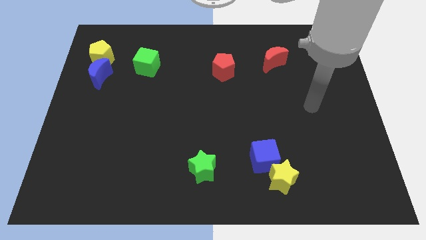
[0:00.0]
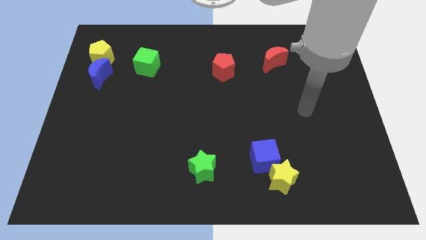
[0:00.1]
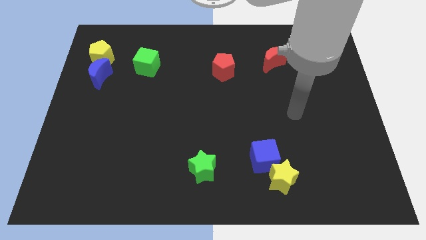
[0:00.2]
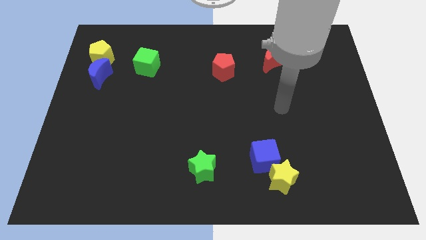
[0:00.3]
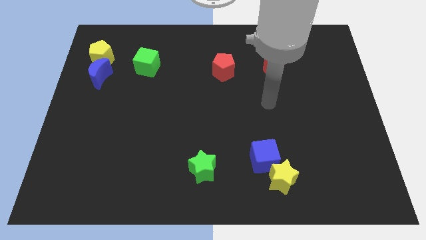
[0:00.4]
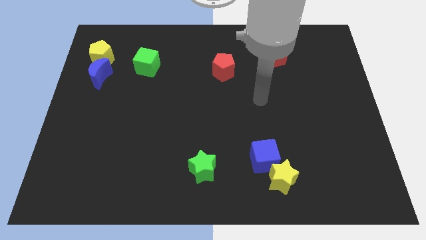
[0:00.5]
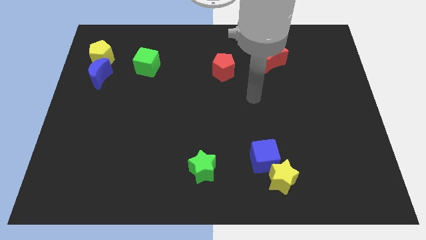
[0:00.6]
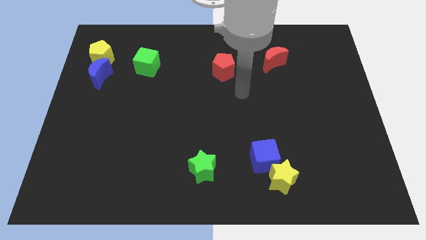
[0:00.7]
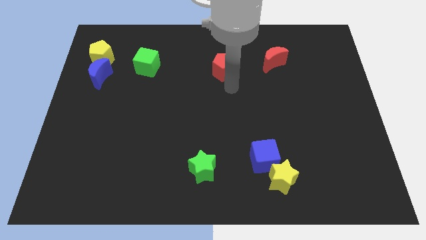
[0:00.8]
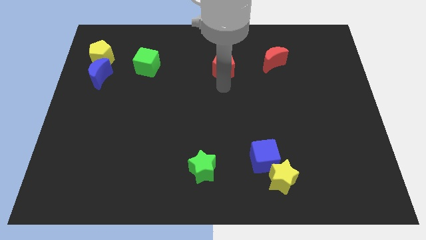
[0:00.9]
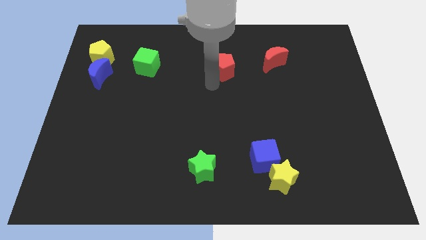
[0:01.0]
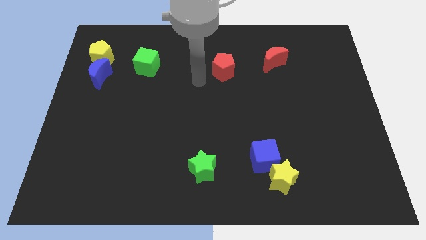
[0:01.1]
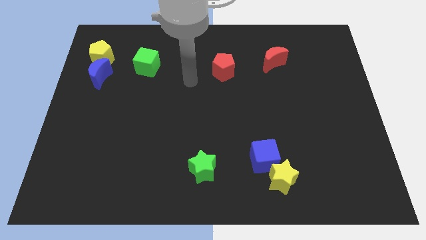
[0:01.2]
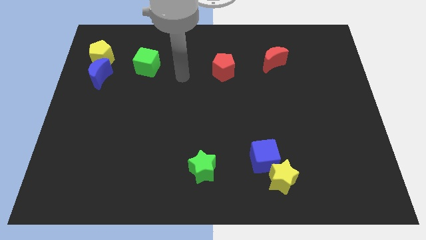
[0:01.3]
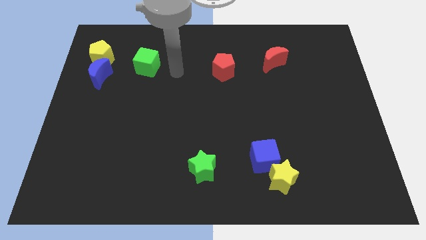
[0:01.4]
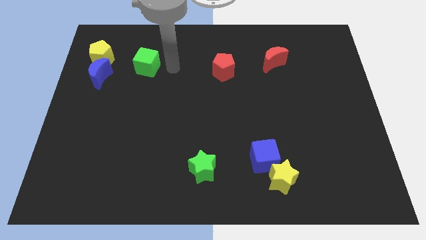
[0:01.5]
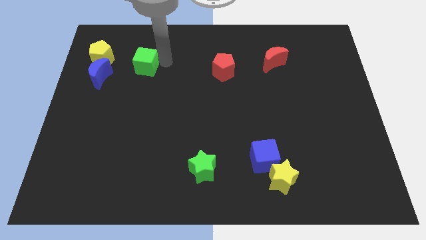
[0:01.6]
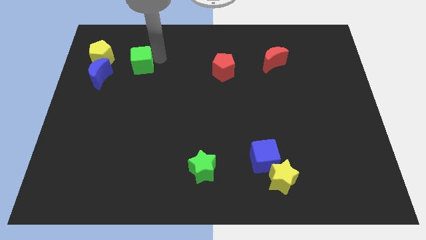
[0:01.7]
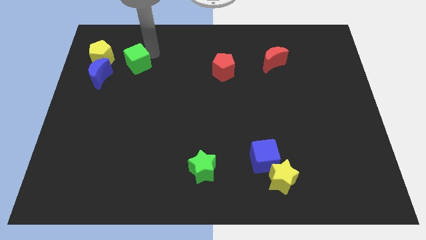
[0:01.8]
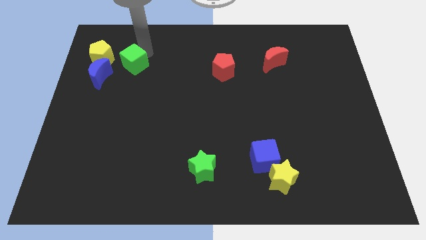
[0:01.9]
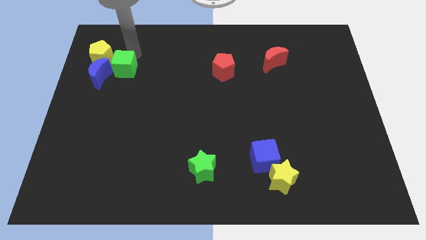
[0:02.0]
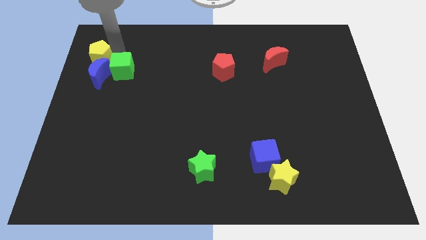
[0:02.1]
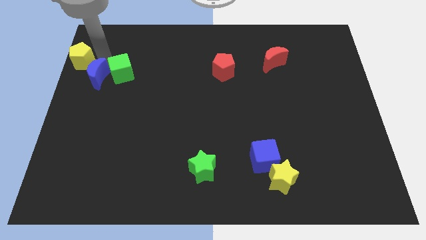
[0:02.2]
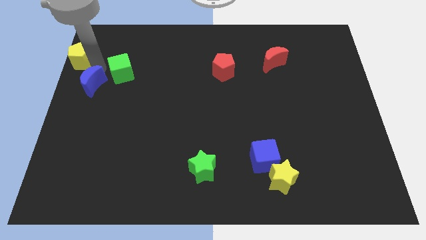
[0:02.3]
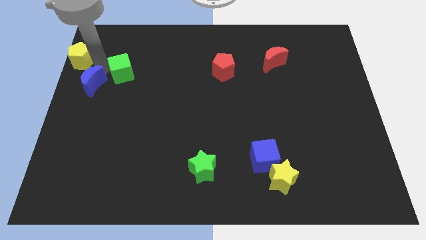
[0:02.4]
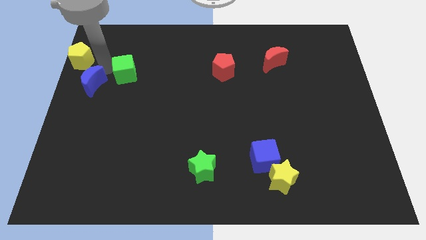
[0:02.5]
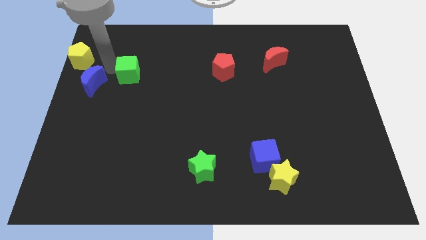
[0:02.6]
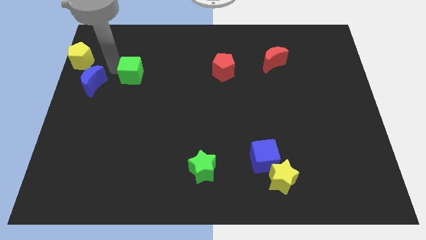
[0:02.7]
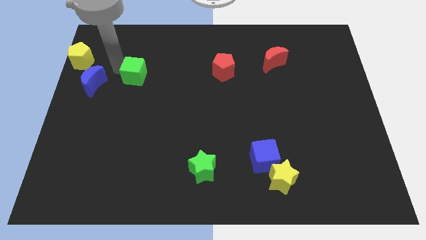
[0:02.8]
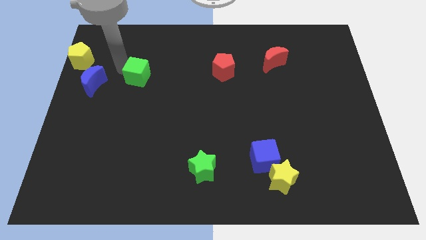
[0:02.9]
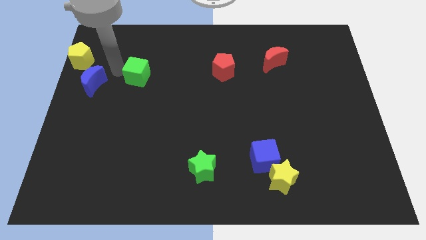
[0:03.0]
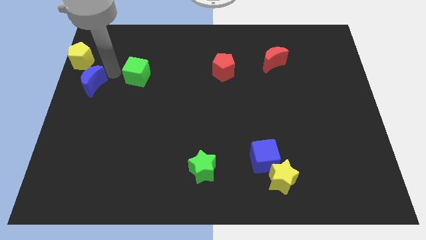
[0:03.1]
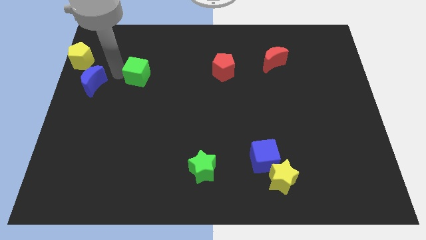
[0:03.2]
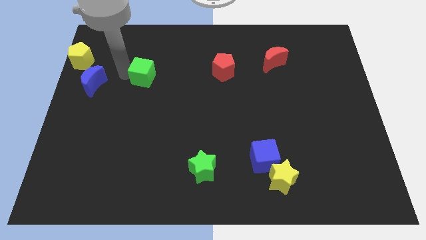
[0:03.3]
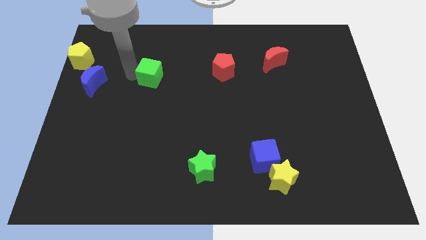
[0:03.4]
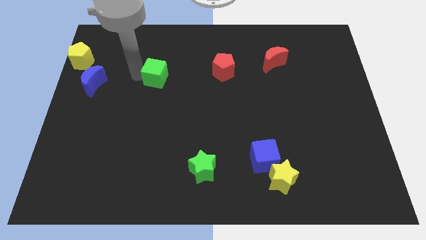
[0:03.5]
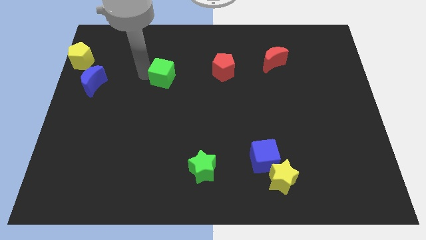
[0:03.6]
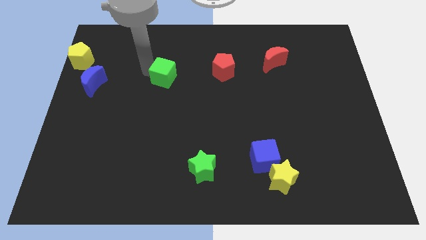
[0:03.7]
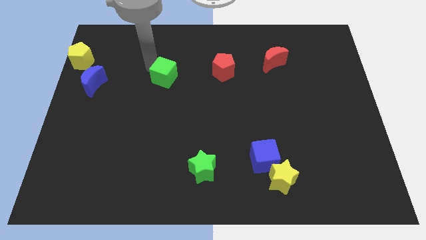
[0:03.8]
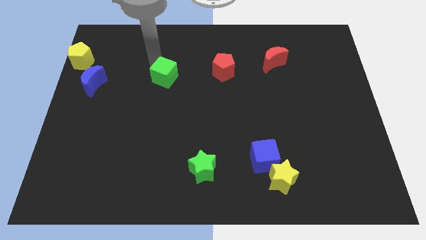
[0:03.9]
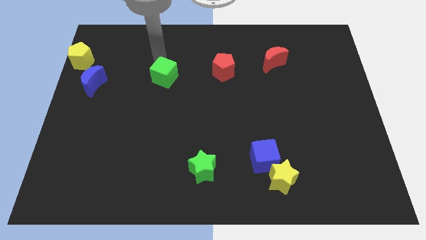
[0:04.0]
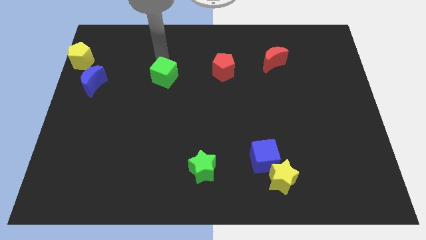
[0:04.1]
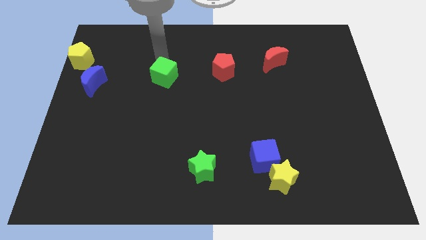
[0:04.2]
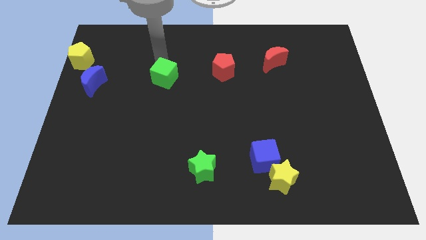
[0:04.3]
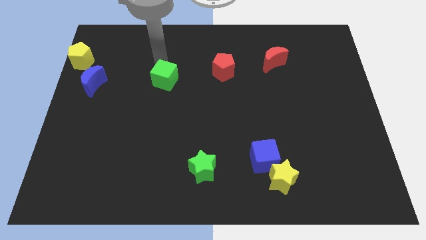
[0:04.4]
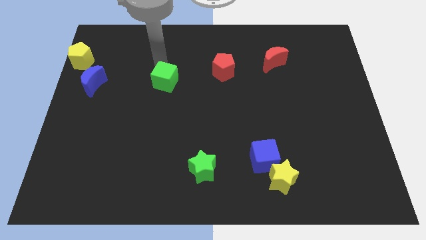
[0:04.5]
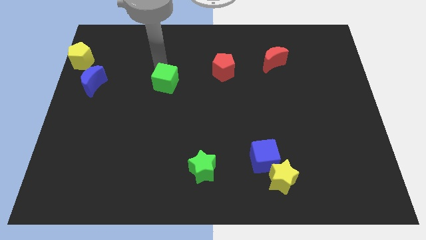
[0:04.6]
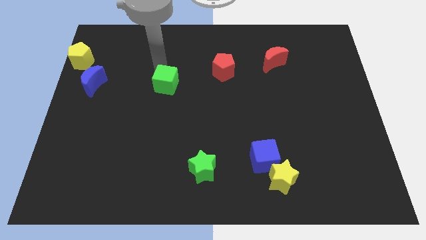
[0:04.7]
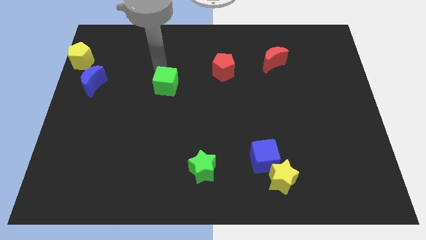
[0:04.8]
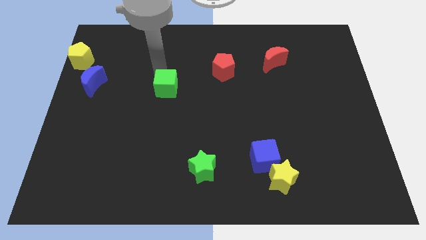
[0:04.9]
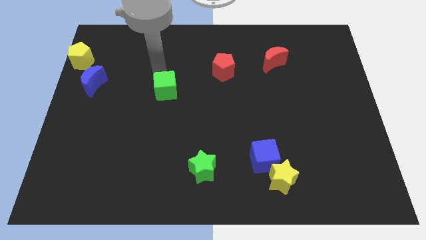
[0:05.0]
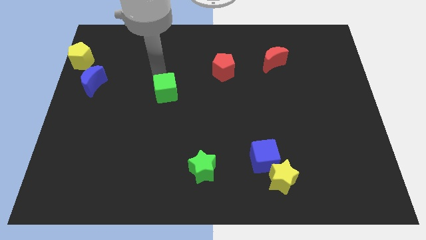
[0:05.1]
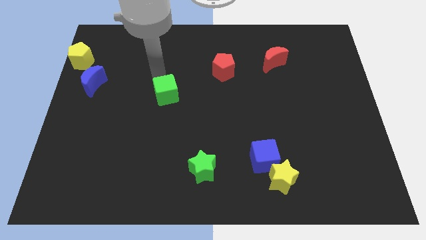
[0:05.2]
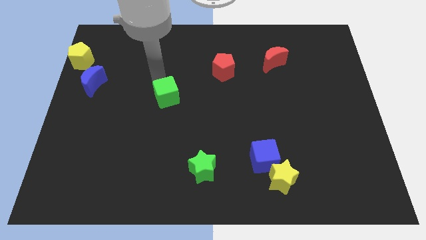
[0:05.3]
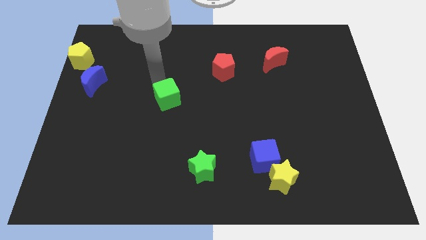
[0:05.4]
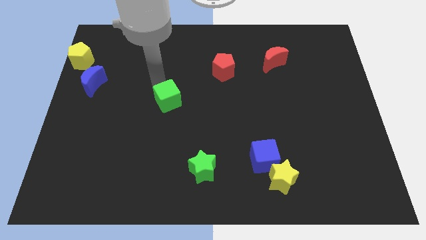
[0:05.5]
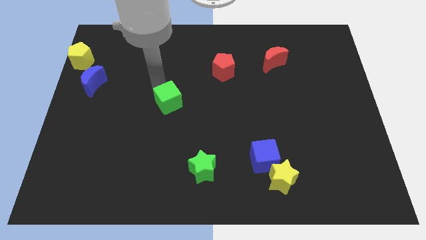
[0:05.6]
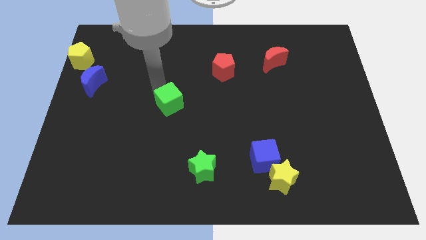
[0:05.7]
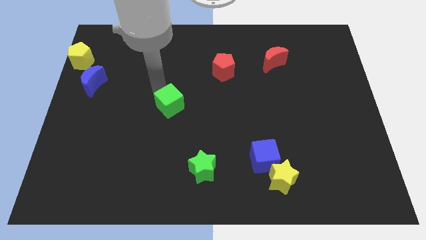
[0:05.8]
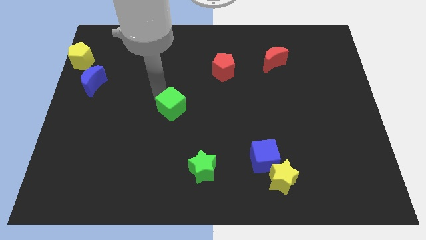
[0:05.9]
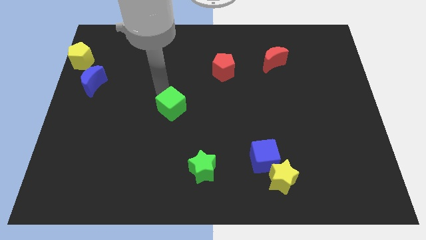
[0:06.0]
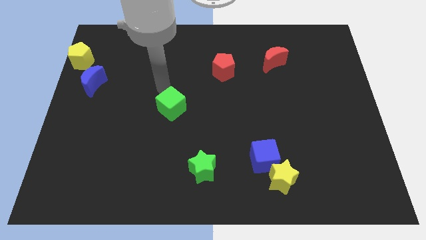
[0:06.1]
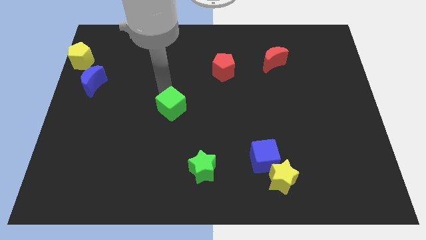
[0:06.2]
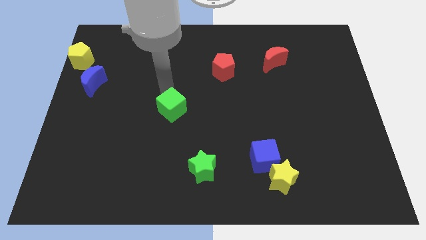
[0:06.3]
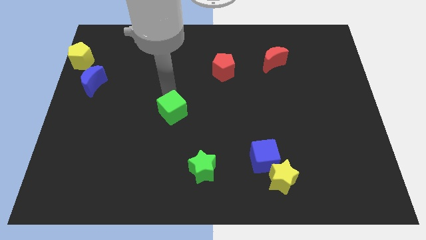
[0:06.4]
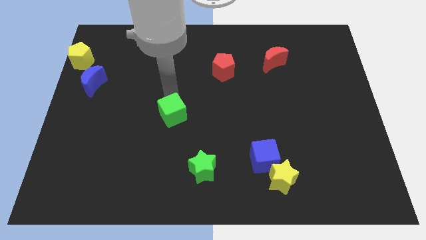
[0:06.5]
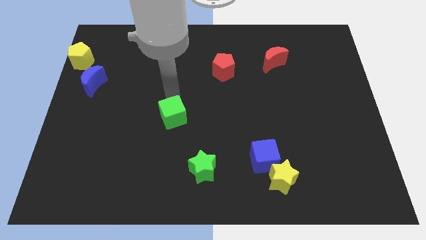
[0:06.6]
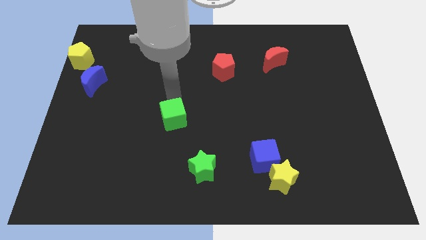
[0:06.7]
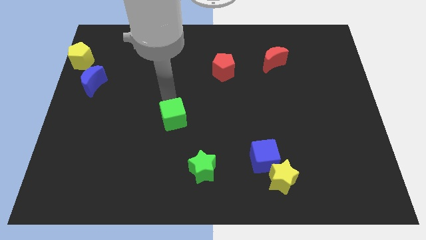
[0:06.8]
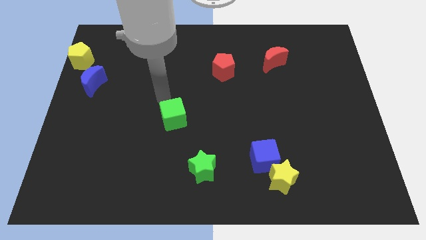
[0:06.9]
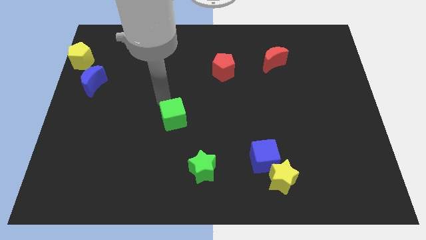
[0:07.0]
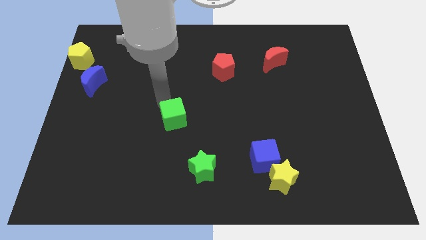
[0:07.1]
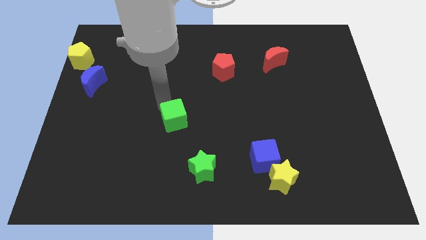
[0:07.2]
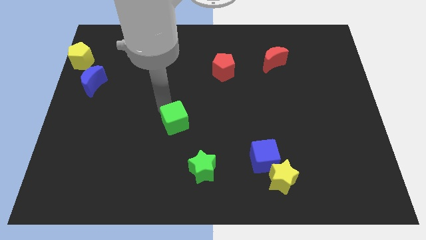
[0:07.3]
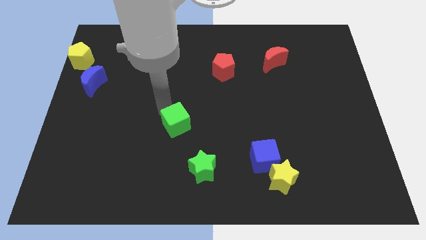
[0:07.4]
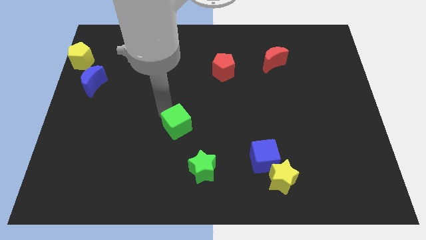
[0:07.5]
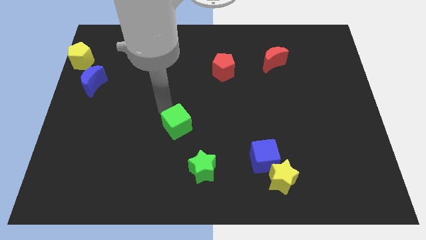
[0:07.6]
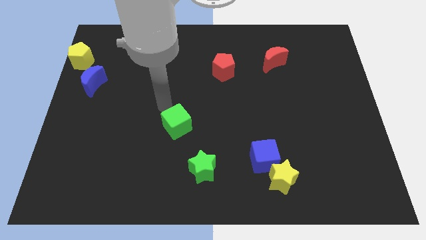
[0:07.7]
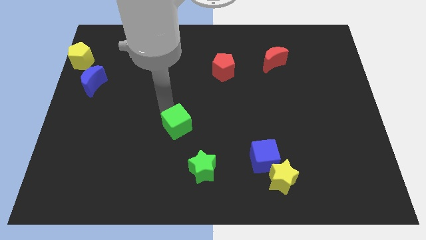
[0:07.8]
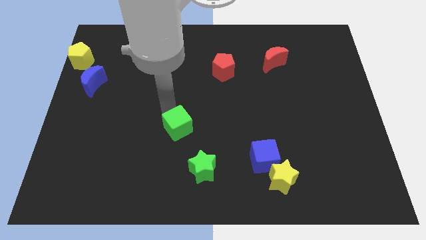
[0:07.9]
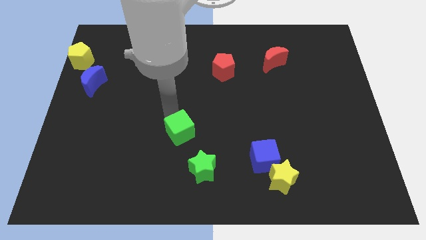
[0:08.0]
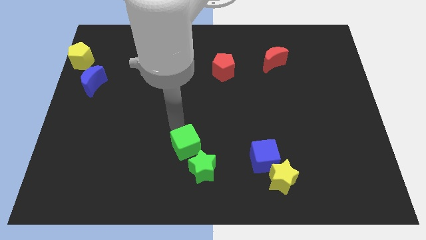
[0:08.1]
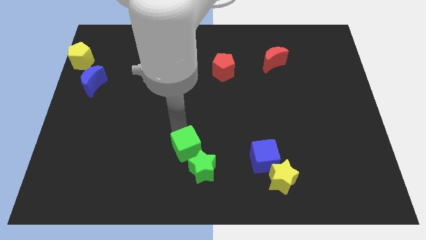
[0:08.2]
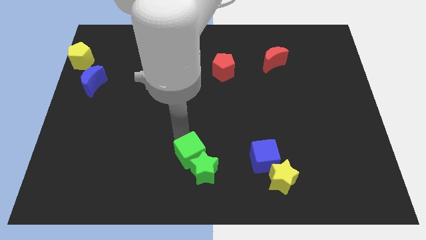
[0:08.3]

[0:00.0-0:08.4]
move the green cube to the green star
